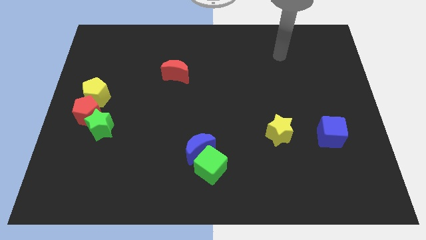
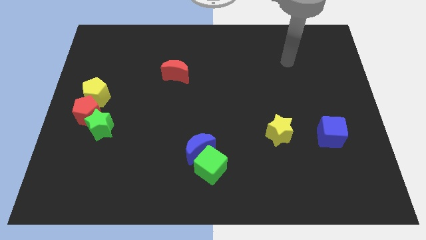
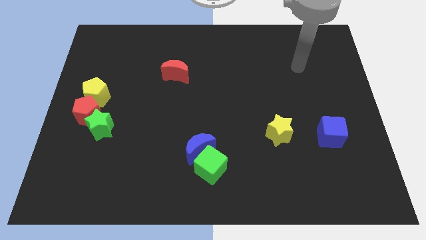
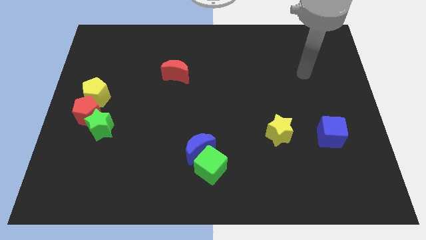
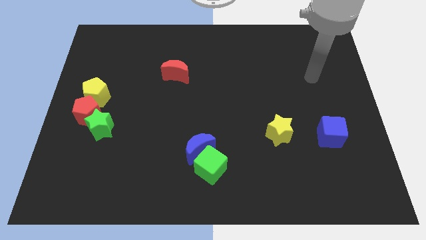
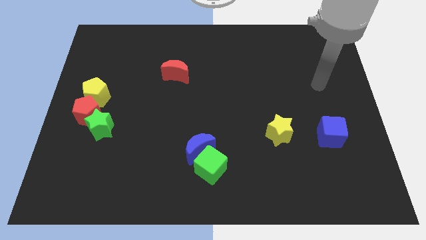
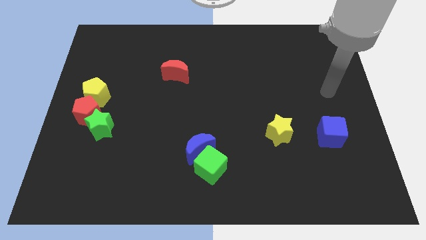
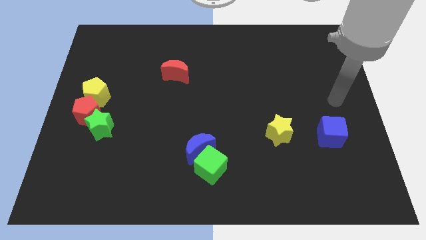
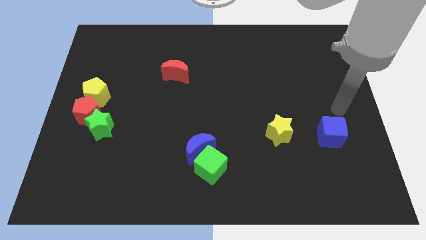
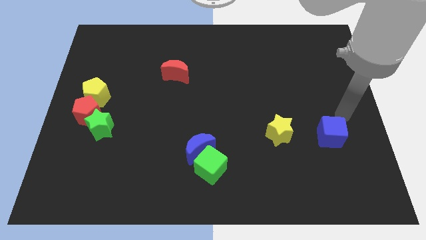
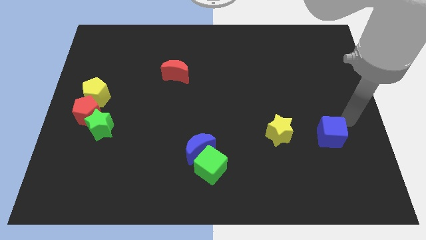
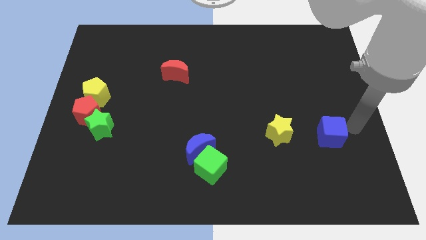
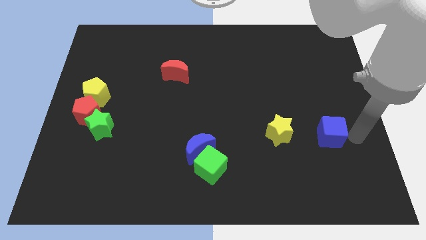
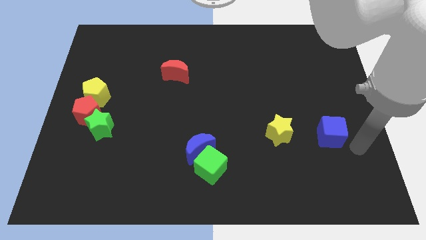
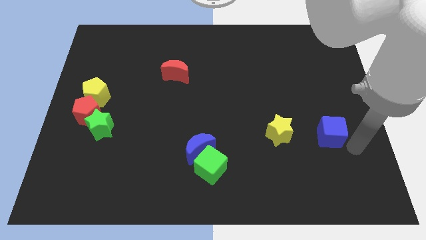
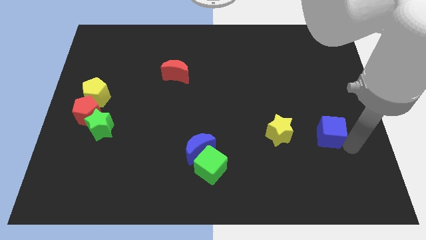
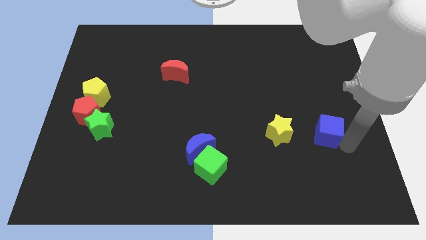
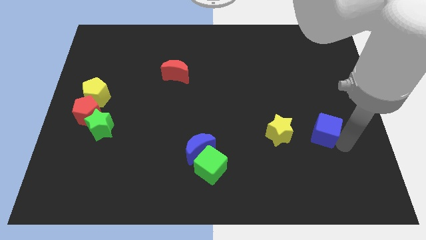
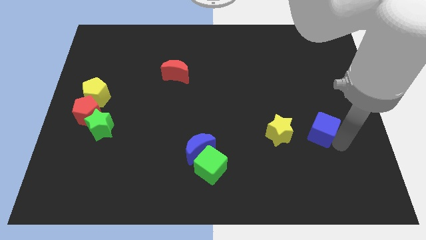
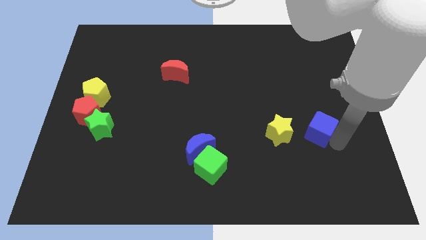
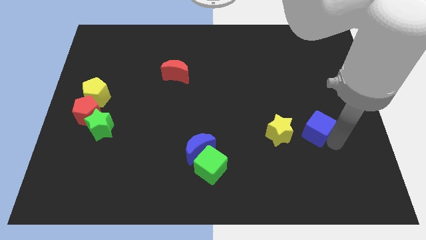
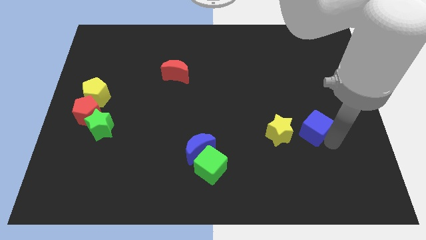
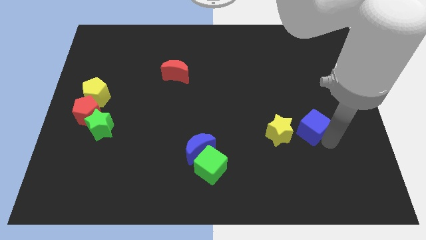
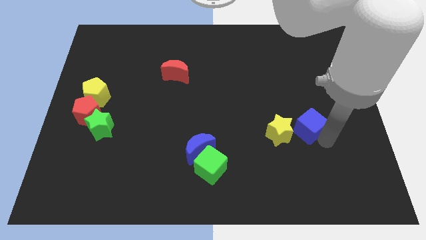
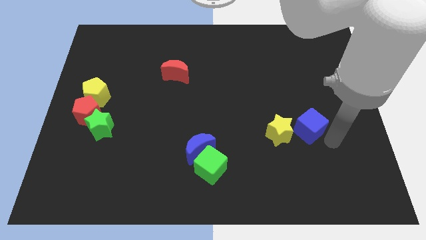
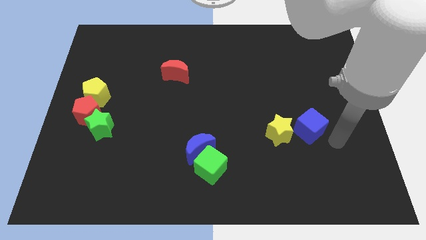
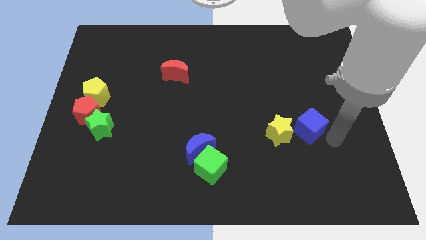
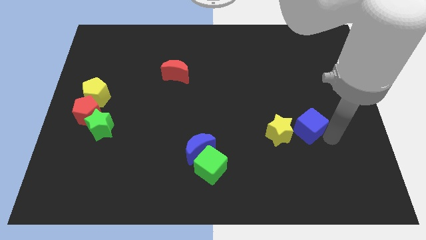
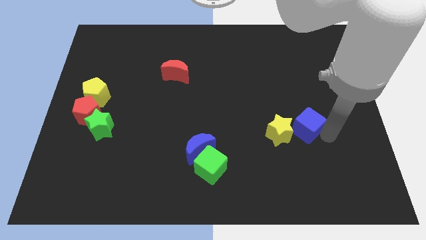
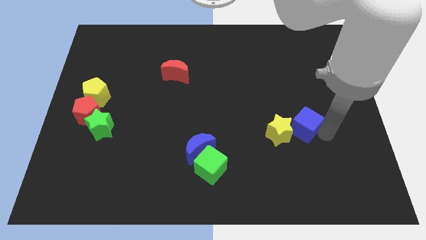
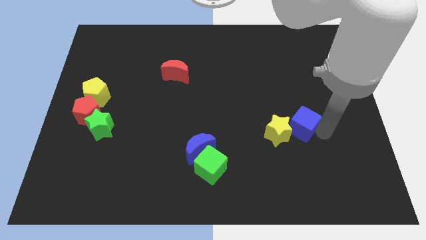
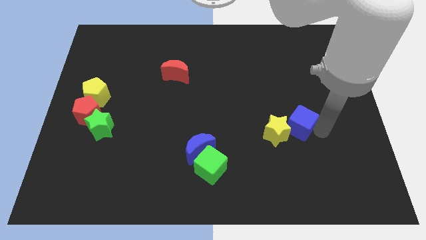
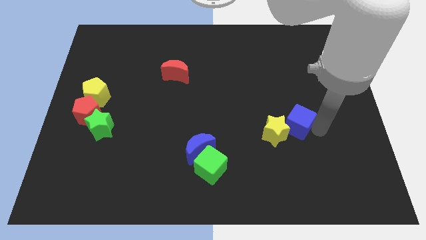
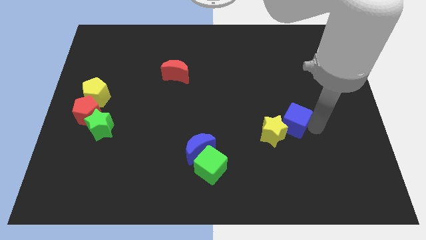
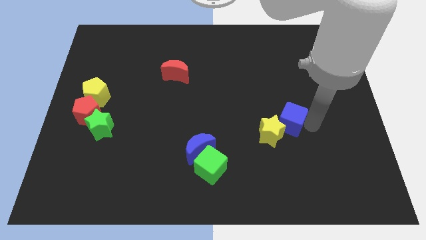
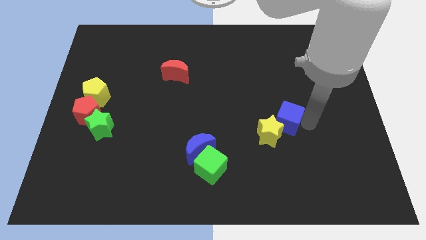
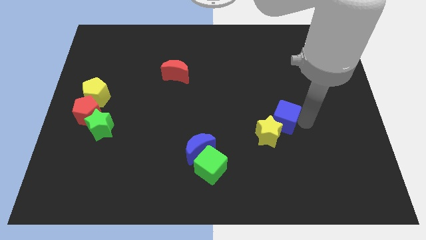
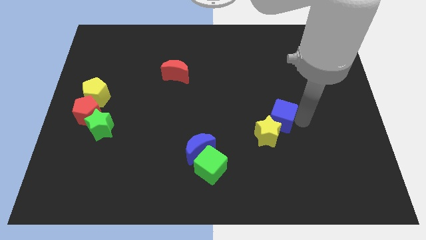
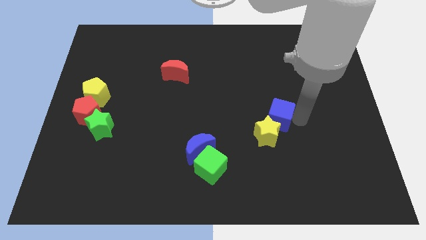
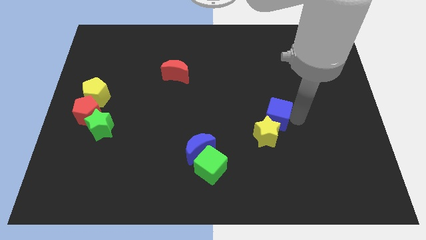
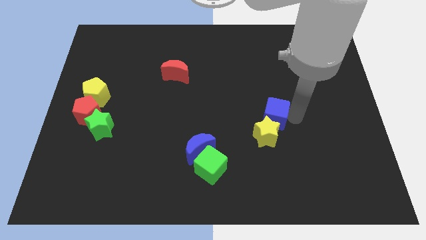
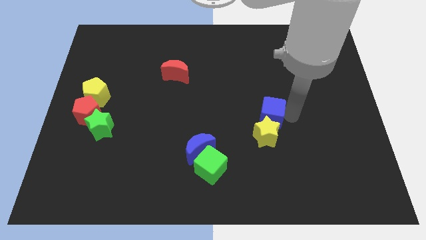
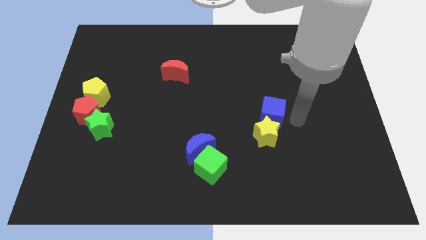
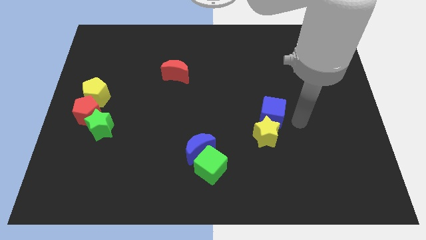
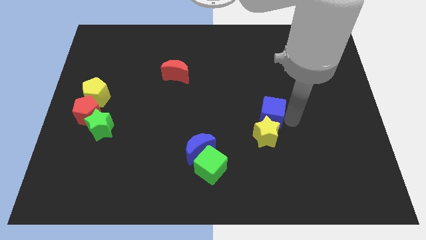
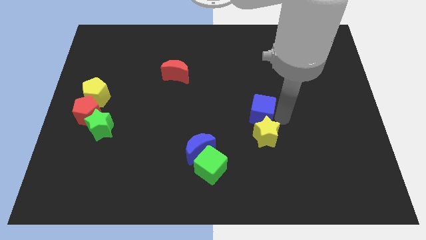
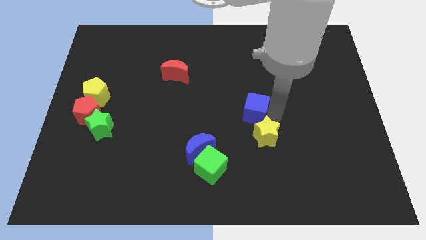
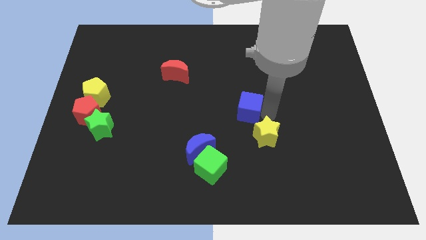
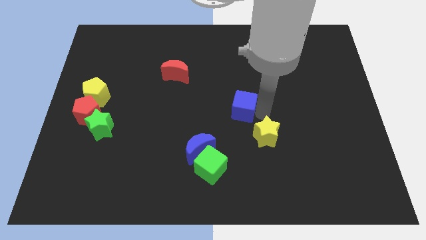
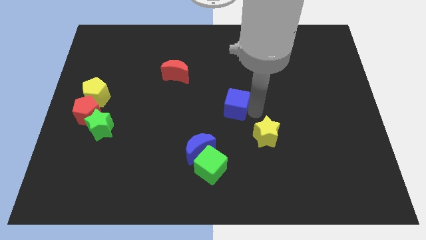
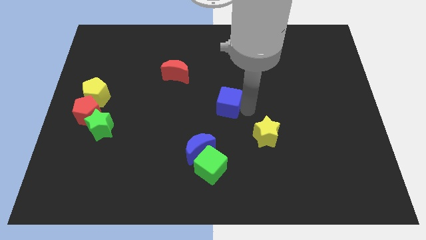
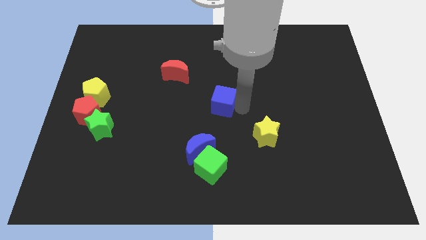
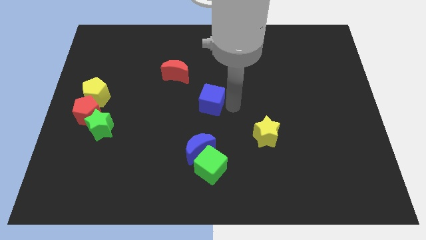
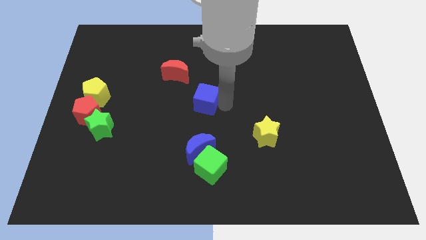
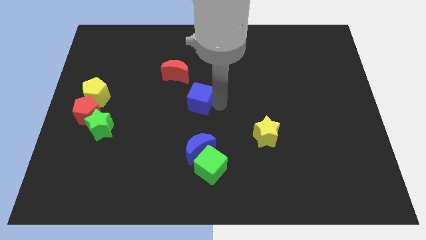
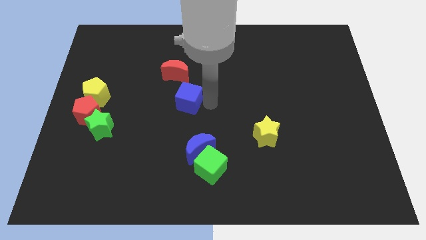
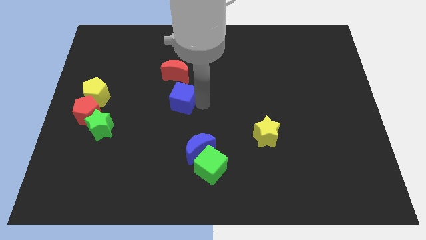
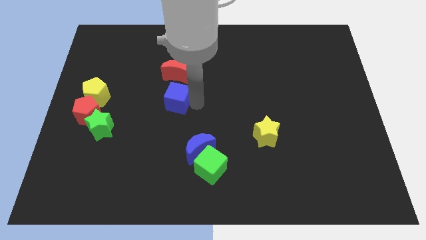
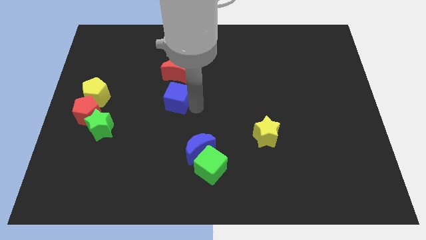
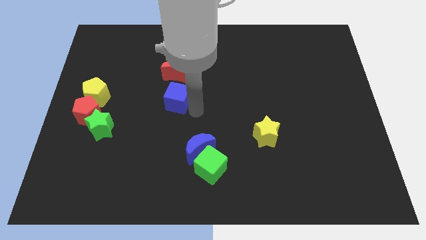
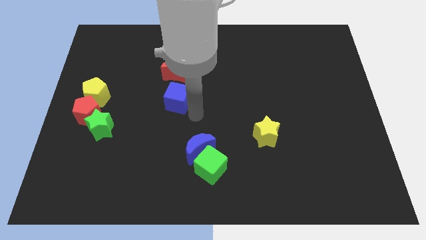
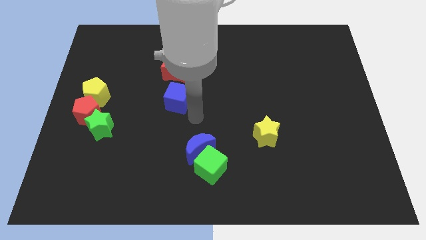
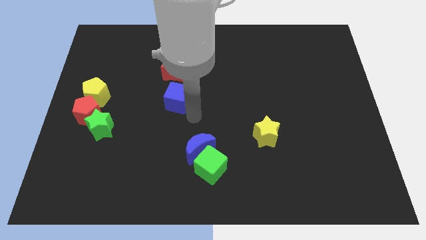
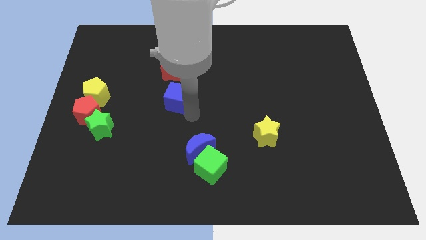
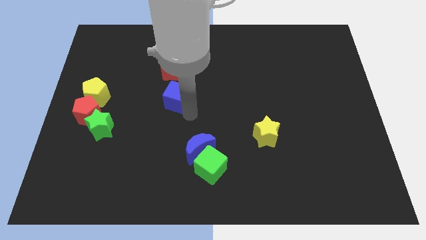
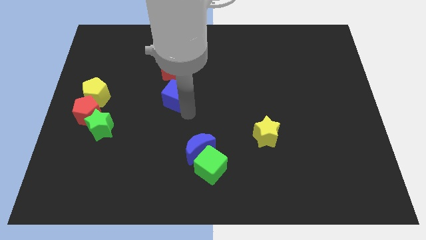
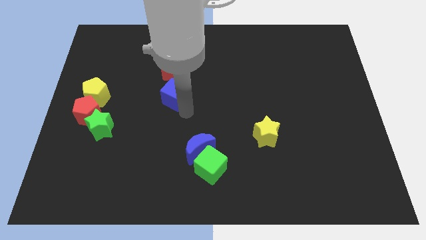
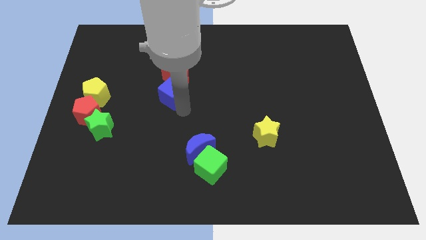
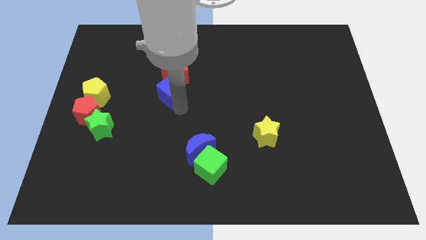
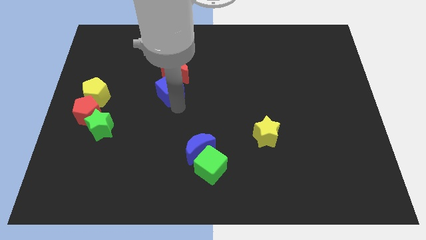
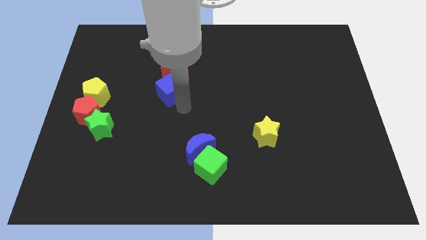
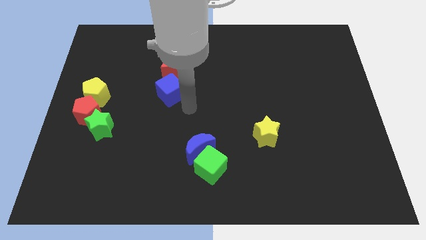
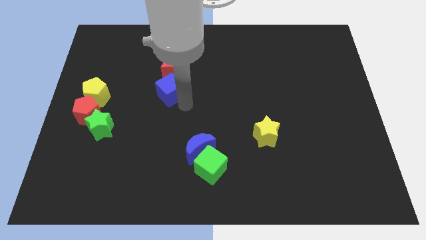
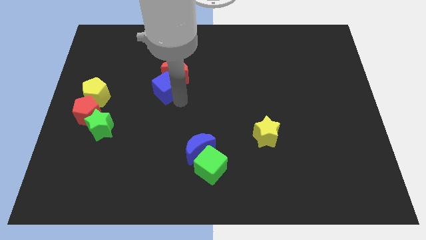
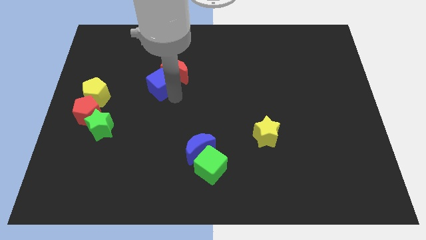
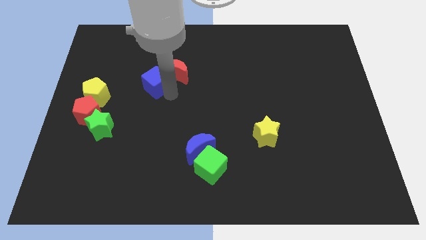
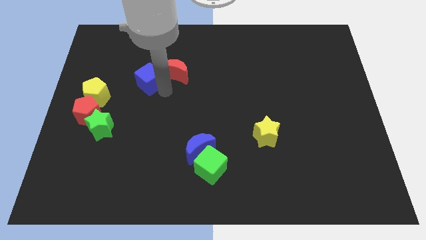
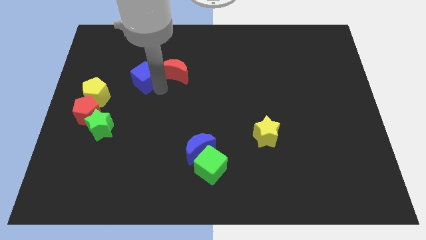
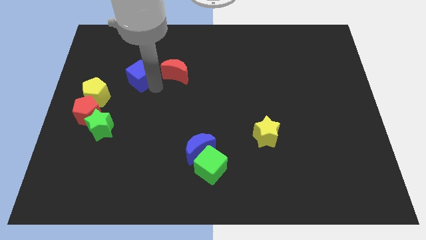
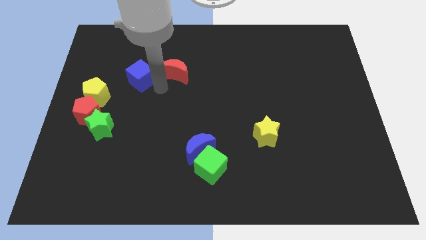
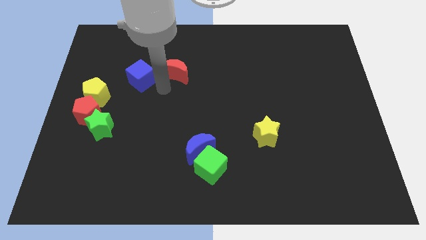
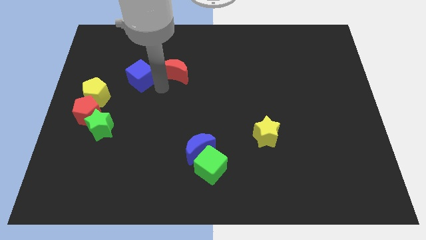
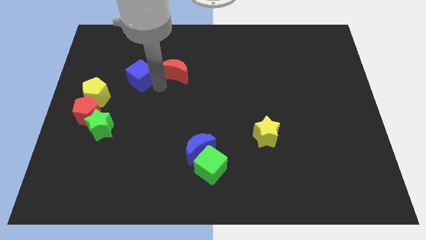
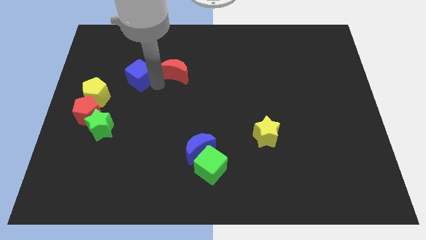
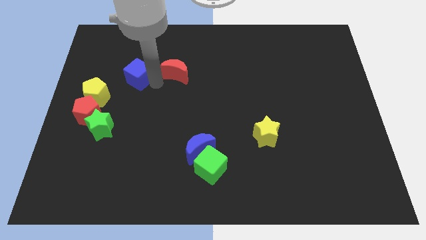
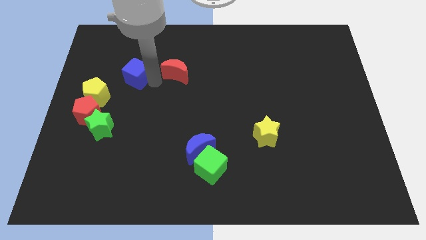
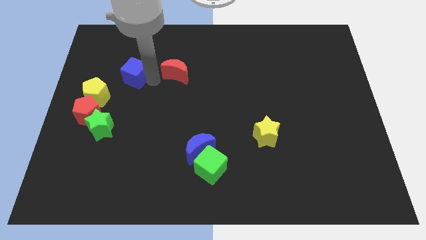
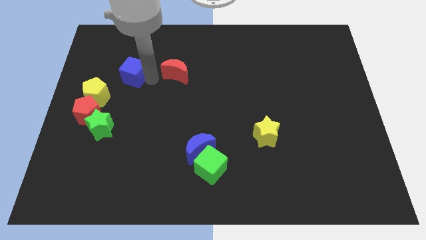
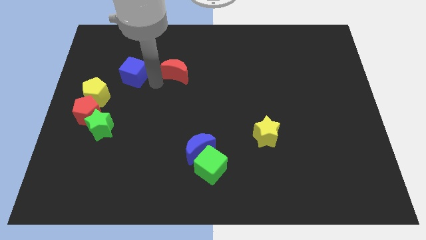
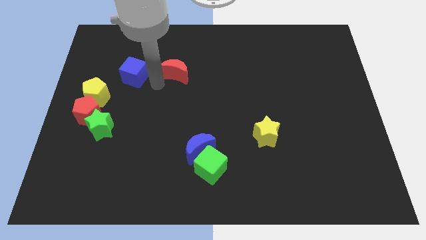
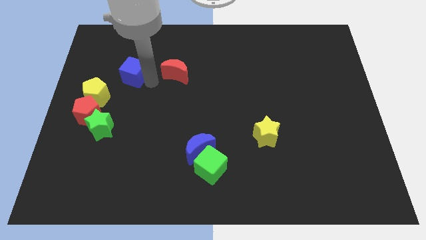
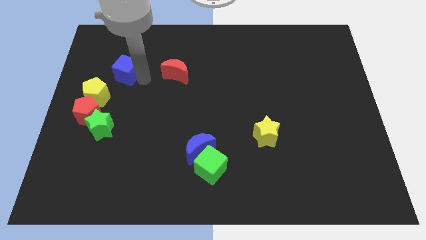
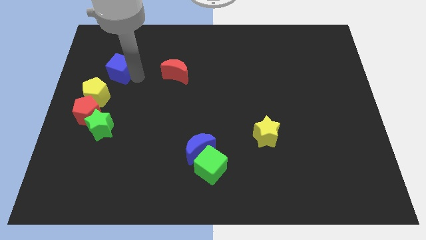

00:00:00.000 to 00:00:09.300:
put the blue cube to the top of the yellow pentagon
